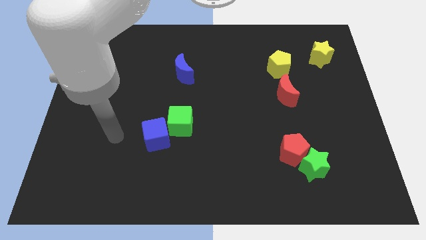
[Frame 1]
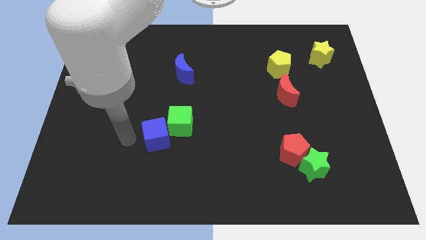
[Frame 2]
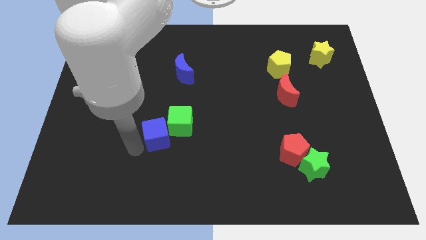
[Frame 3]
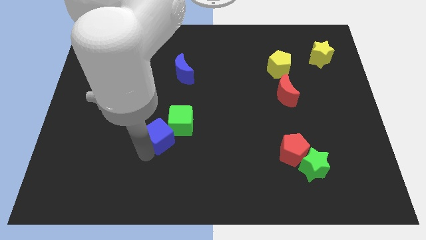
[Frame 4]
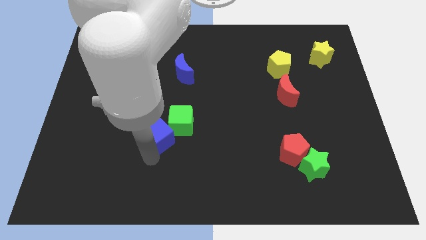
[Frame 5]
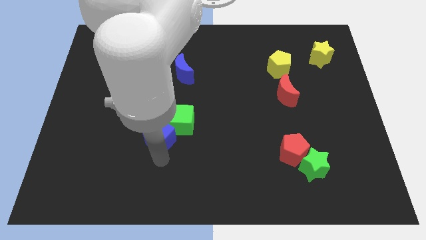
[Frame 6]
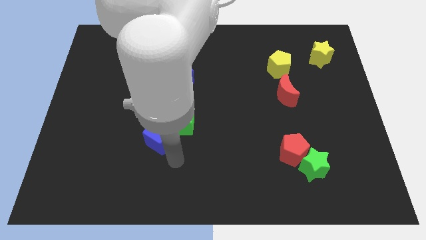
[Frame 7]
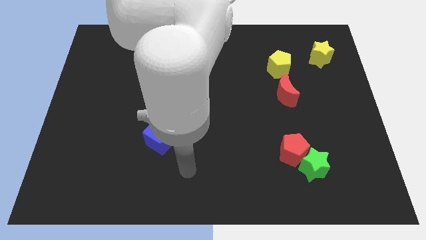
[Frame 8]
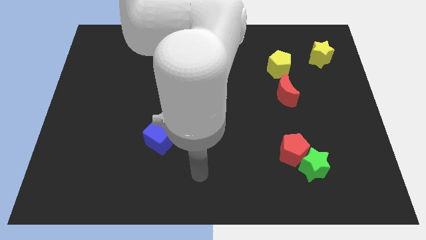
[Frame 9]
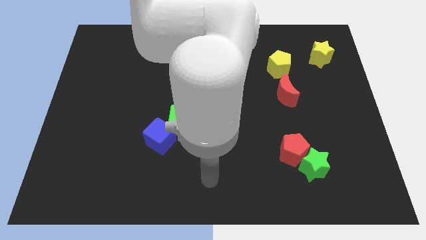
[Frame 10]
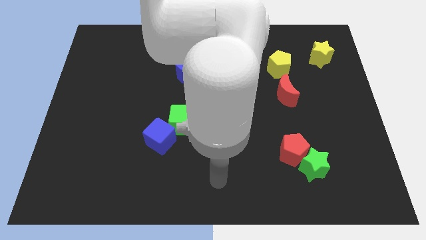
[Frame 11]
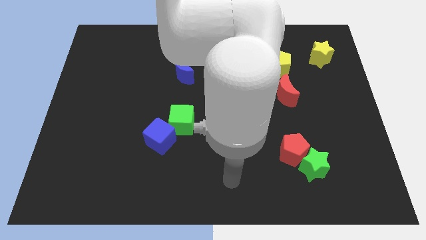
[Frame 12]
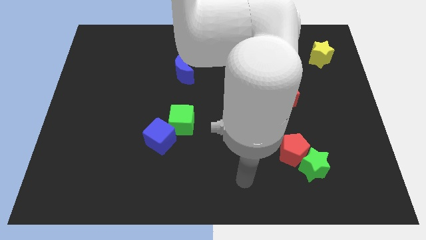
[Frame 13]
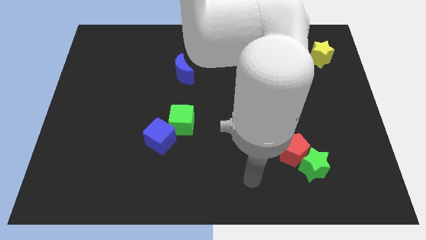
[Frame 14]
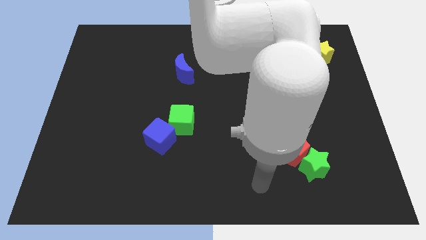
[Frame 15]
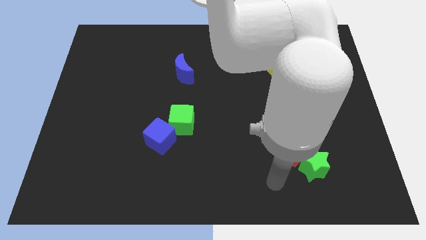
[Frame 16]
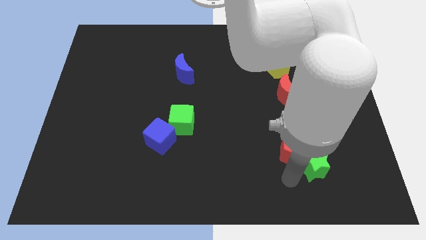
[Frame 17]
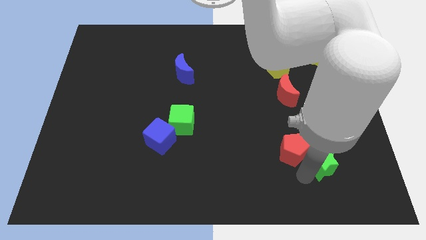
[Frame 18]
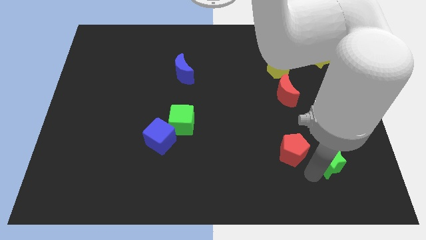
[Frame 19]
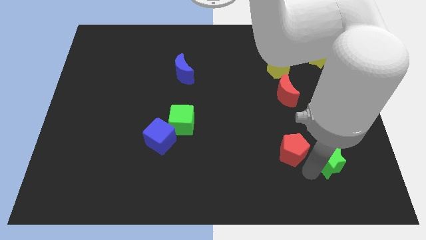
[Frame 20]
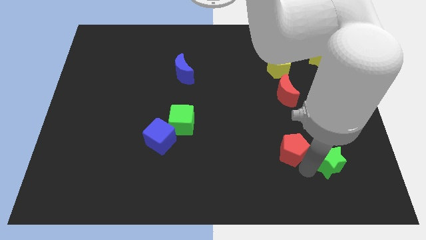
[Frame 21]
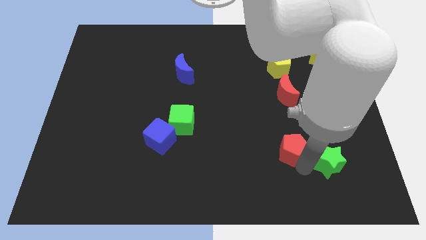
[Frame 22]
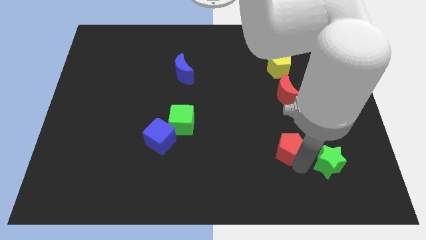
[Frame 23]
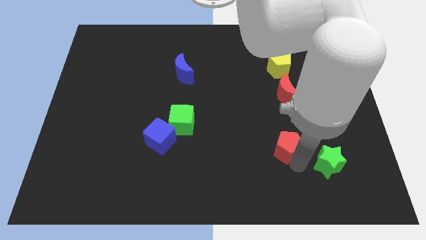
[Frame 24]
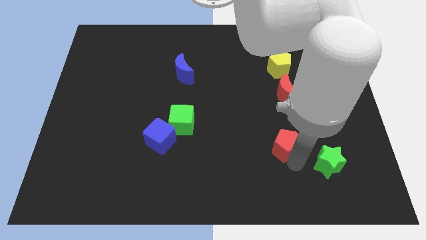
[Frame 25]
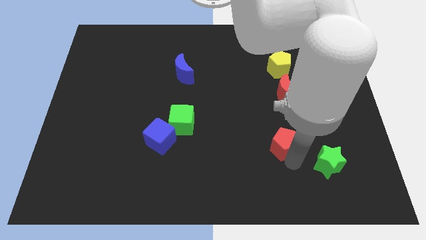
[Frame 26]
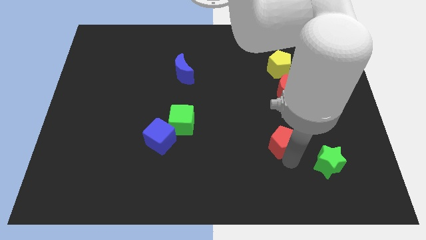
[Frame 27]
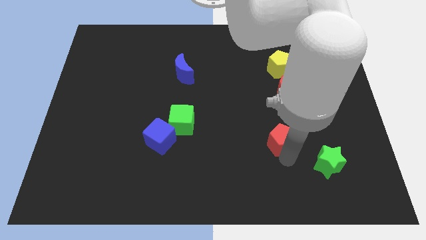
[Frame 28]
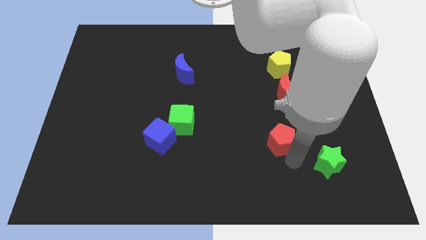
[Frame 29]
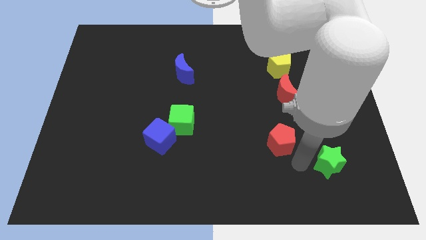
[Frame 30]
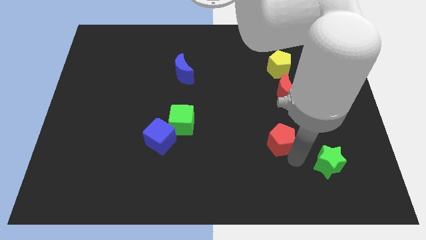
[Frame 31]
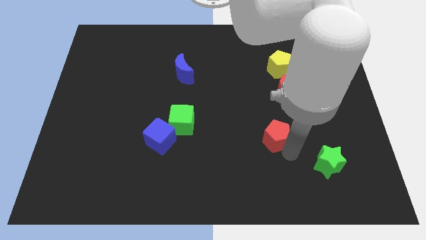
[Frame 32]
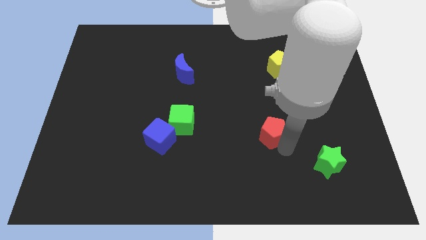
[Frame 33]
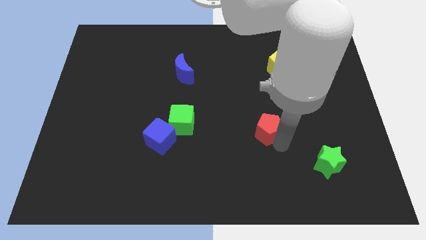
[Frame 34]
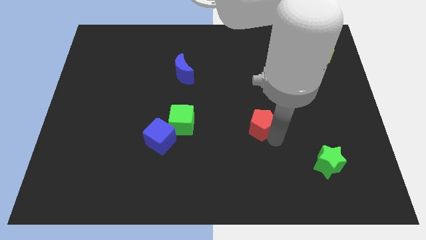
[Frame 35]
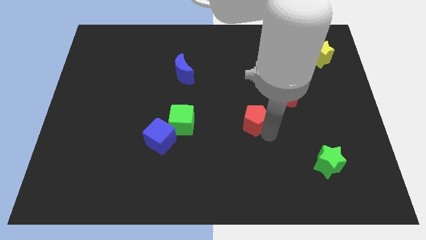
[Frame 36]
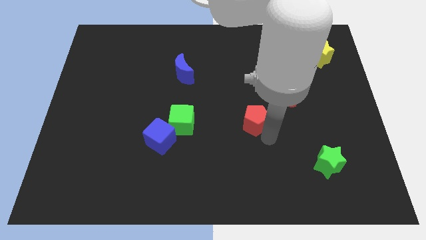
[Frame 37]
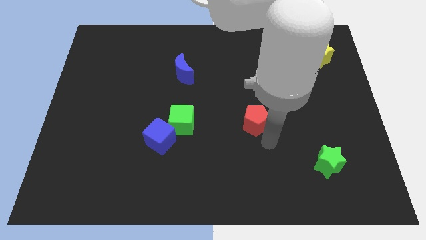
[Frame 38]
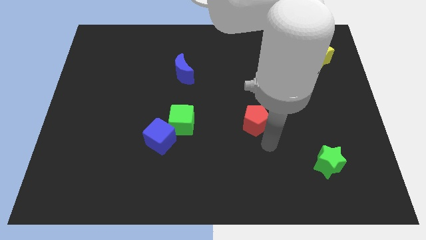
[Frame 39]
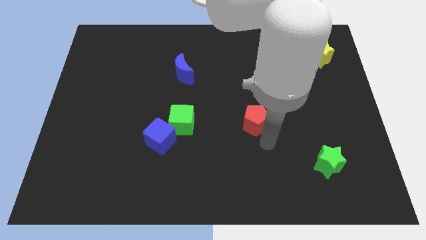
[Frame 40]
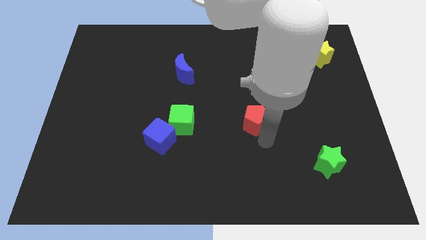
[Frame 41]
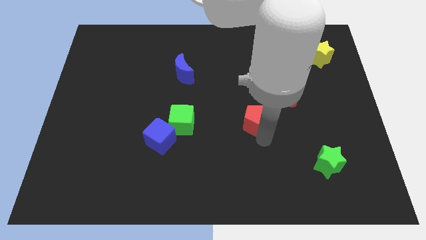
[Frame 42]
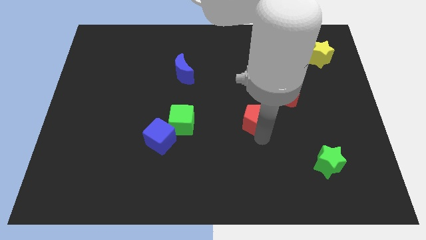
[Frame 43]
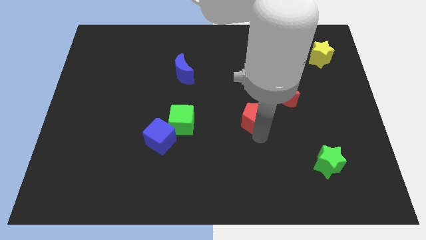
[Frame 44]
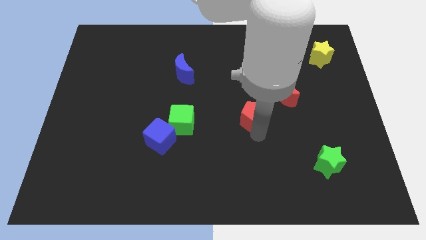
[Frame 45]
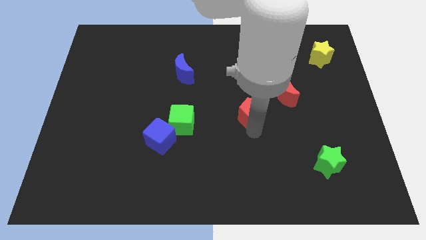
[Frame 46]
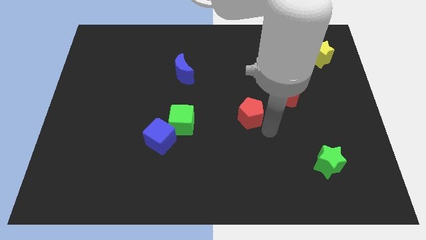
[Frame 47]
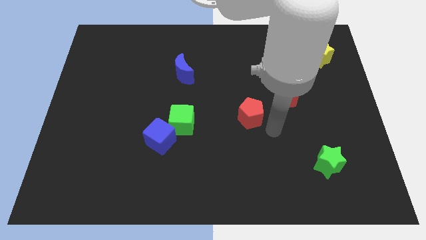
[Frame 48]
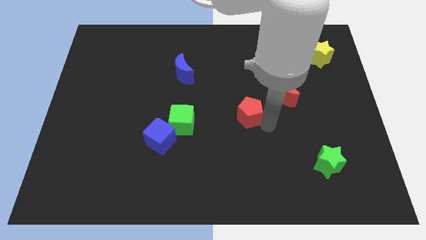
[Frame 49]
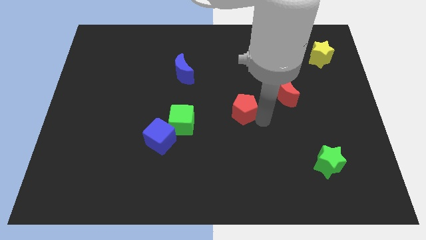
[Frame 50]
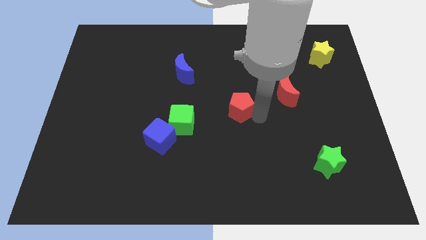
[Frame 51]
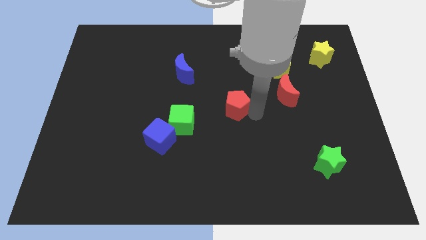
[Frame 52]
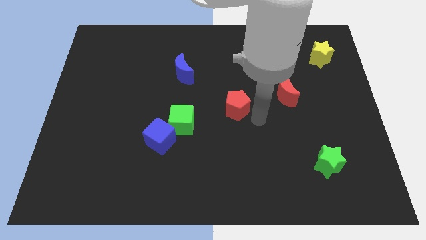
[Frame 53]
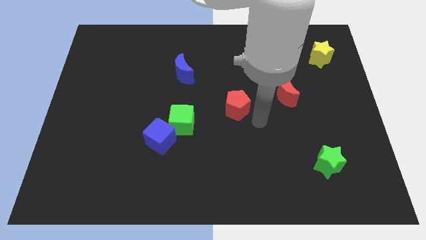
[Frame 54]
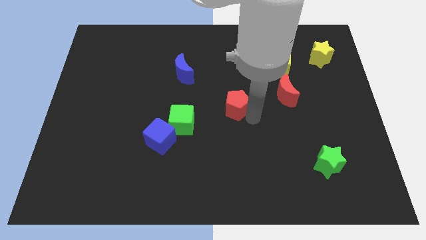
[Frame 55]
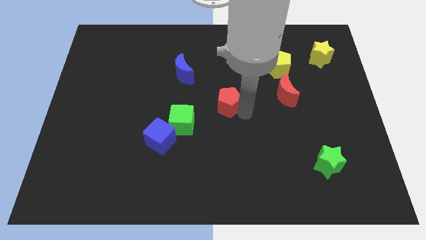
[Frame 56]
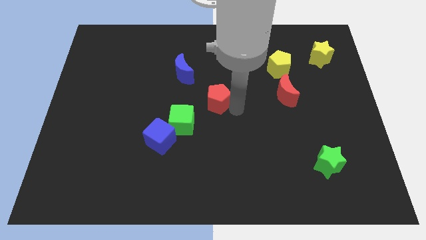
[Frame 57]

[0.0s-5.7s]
put the red pentagon to the bottom right of the blue moon

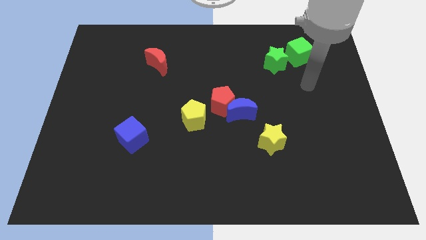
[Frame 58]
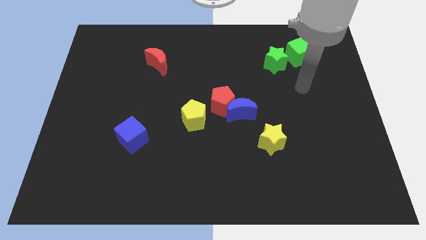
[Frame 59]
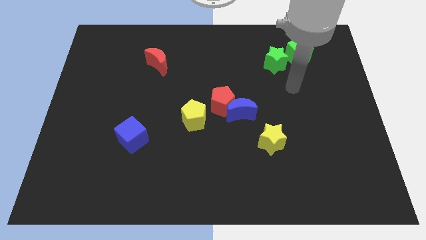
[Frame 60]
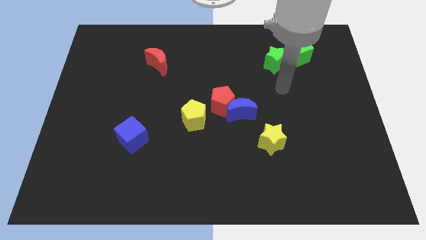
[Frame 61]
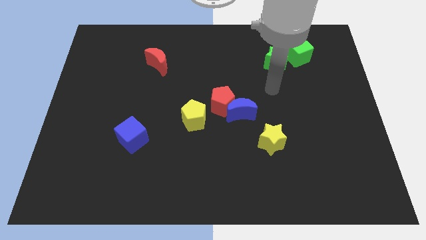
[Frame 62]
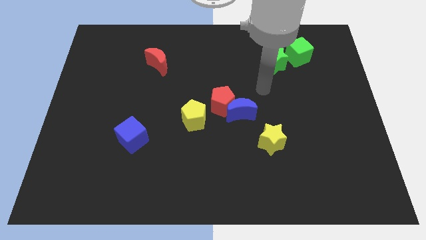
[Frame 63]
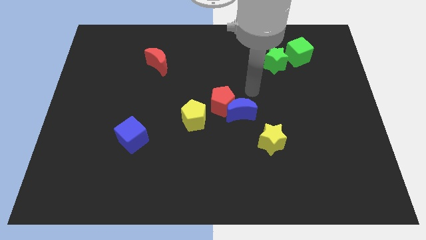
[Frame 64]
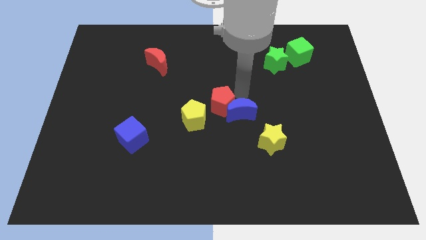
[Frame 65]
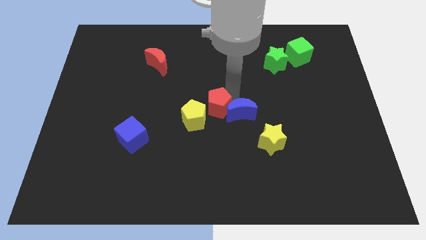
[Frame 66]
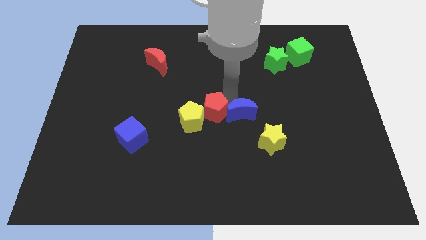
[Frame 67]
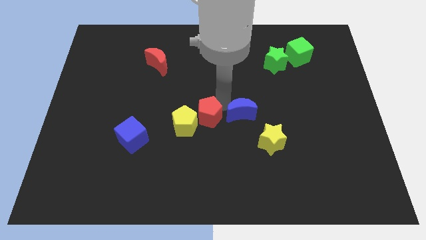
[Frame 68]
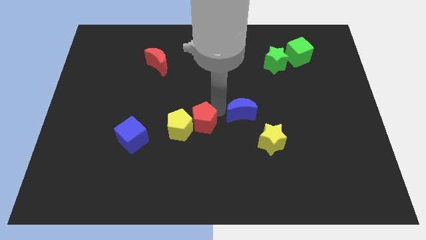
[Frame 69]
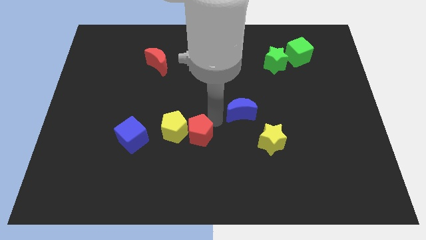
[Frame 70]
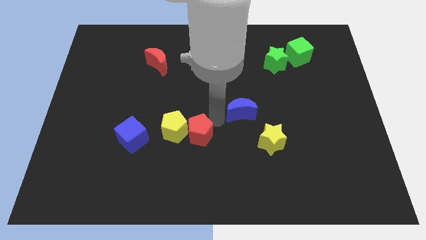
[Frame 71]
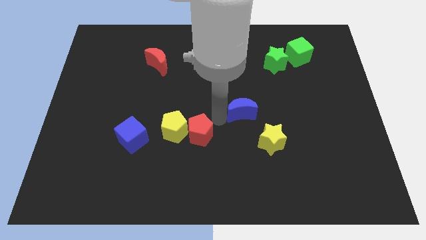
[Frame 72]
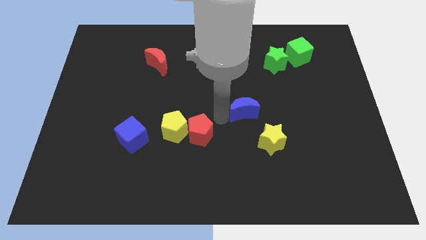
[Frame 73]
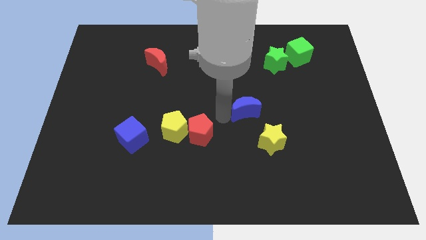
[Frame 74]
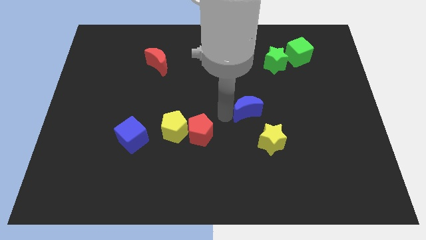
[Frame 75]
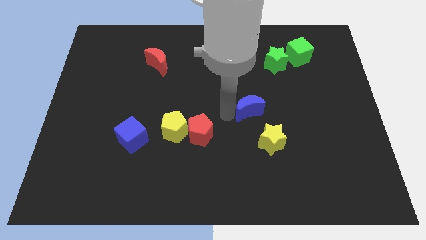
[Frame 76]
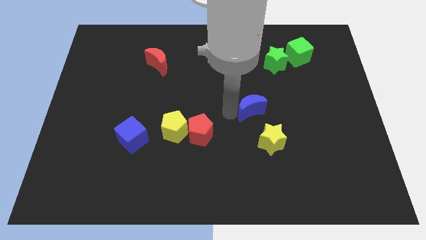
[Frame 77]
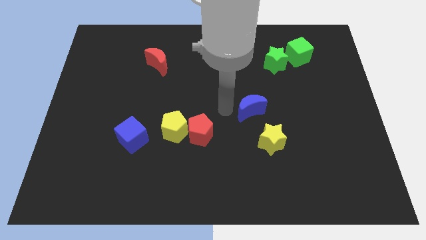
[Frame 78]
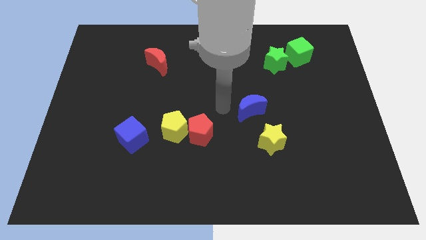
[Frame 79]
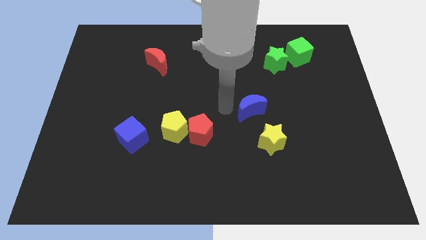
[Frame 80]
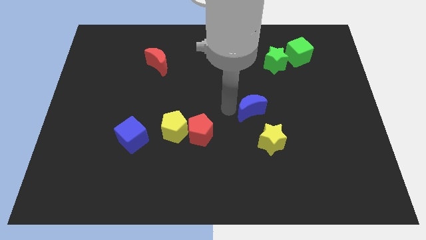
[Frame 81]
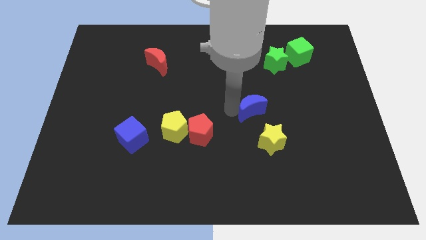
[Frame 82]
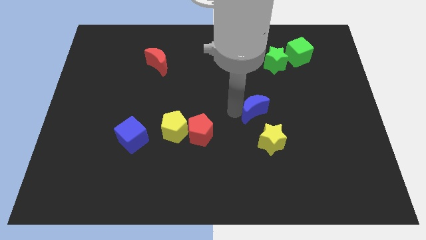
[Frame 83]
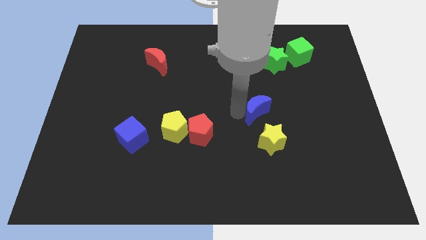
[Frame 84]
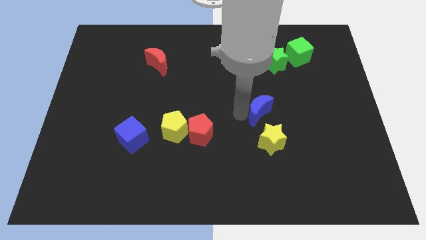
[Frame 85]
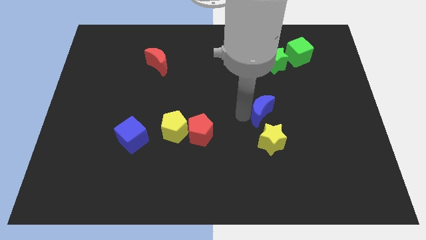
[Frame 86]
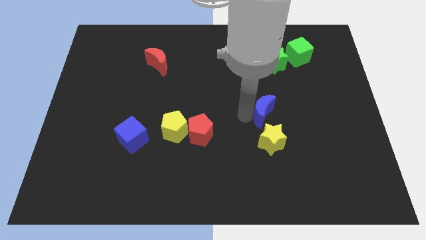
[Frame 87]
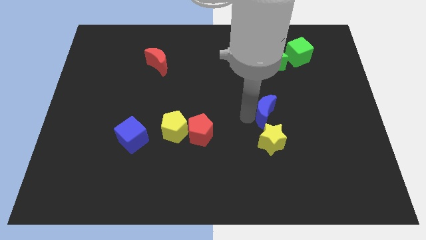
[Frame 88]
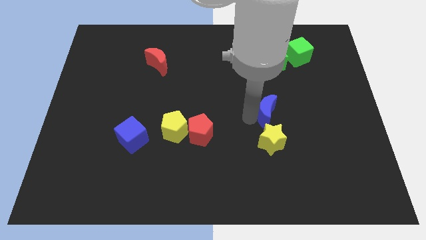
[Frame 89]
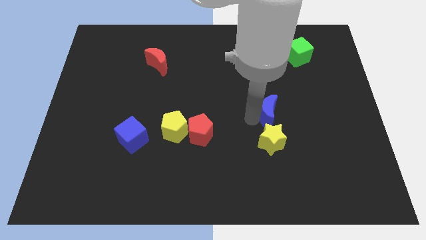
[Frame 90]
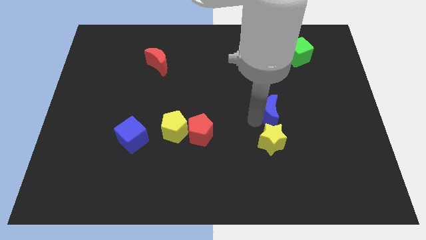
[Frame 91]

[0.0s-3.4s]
move the blue moon diagonally up and to the right of the yellow star
